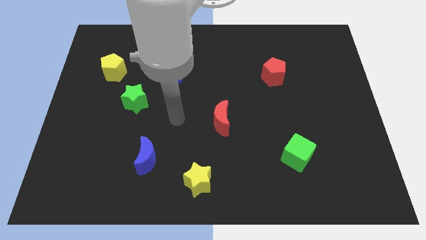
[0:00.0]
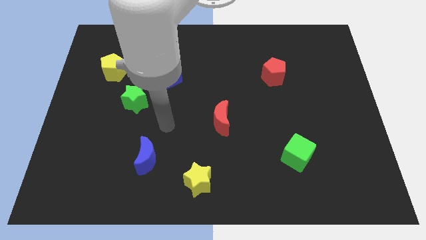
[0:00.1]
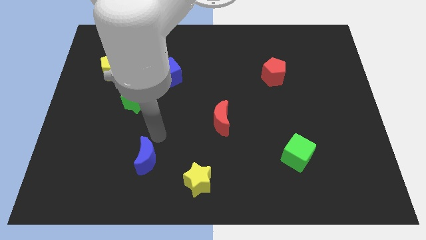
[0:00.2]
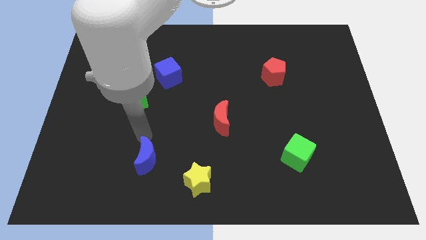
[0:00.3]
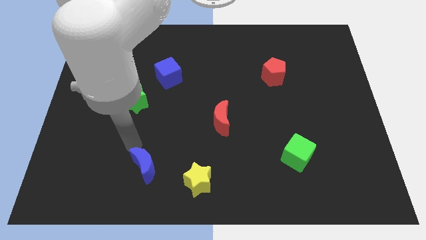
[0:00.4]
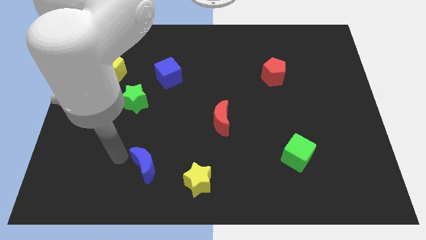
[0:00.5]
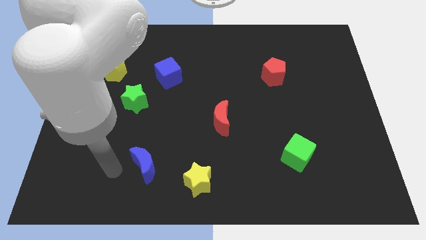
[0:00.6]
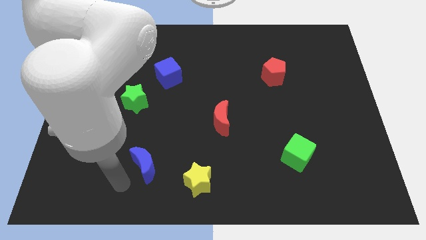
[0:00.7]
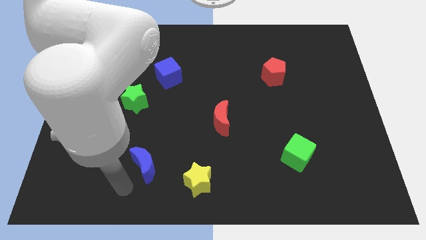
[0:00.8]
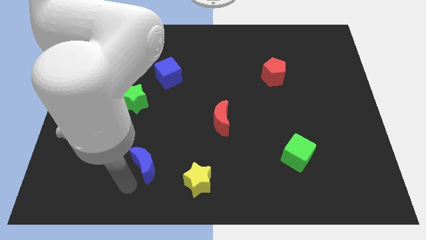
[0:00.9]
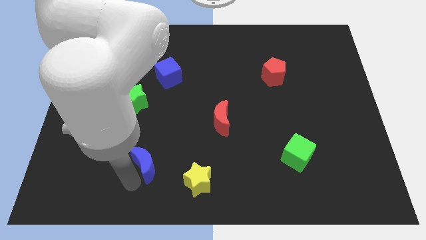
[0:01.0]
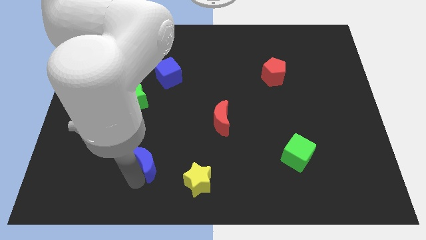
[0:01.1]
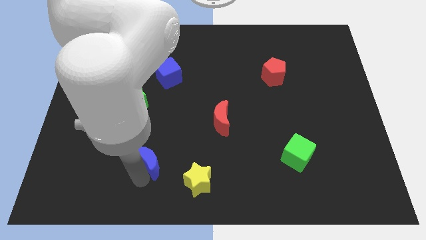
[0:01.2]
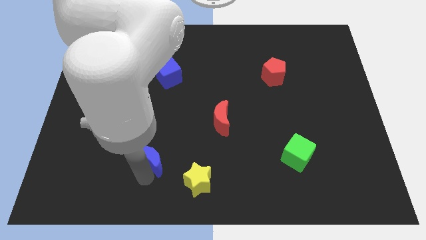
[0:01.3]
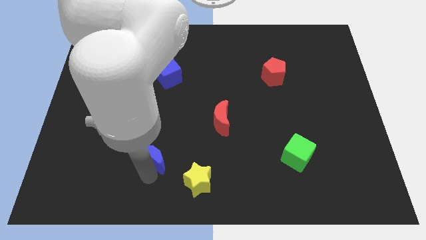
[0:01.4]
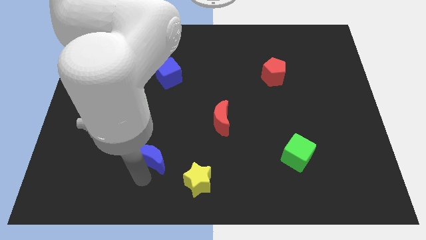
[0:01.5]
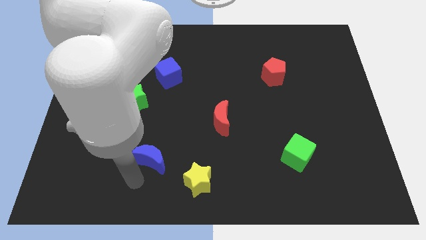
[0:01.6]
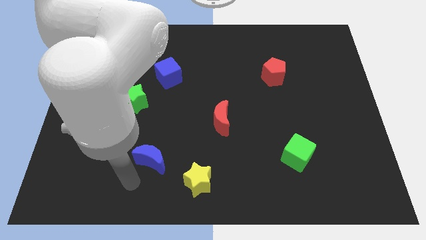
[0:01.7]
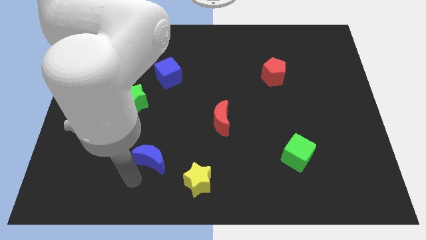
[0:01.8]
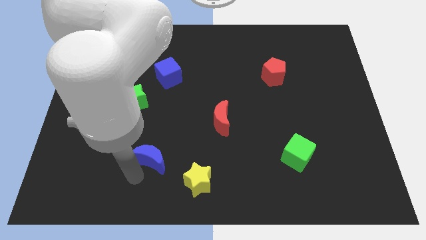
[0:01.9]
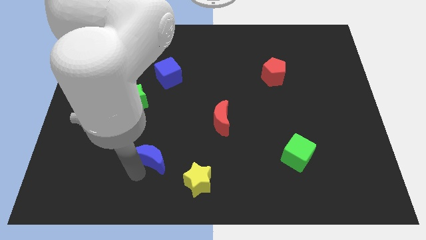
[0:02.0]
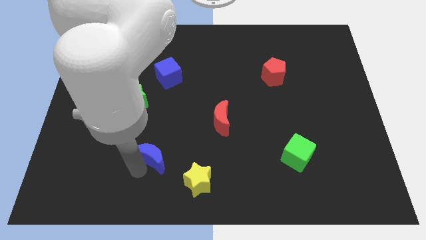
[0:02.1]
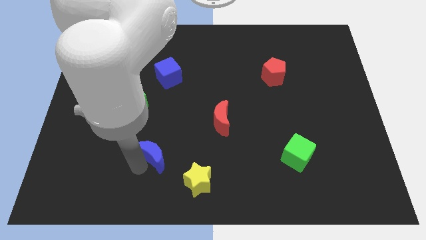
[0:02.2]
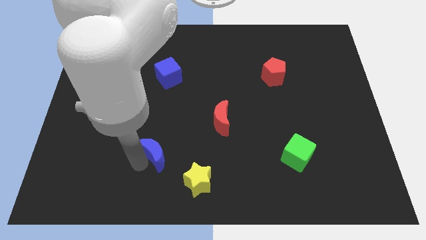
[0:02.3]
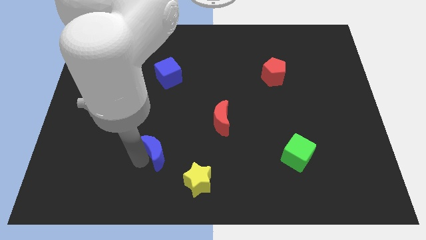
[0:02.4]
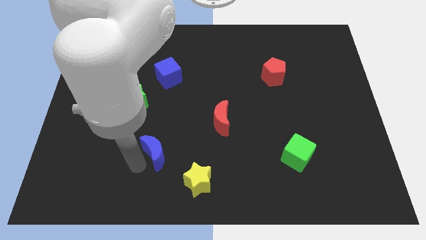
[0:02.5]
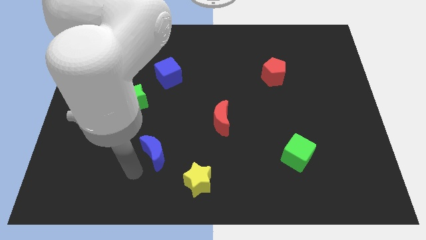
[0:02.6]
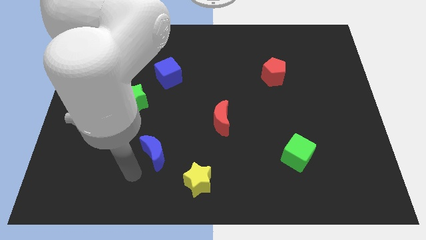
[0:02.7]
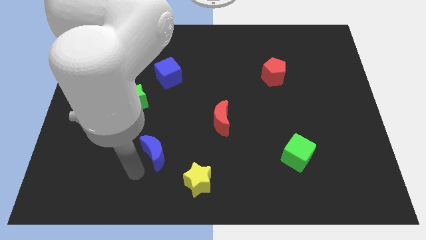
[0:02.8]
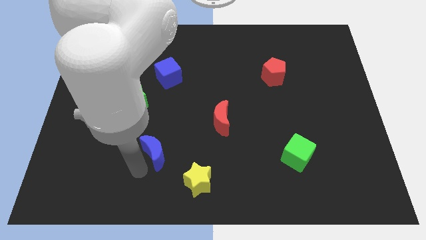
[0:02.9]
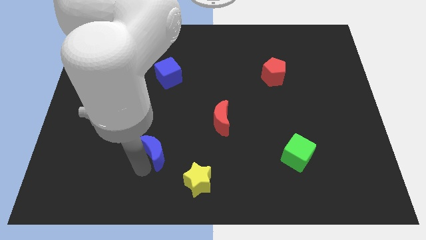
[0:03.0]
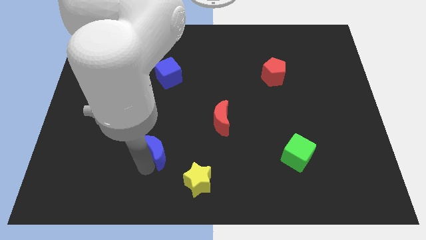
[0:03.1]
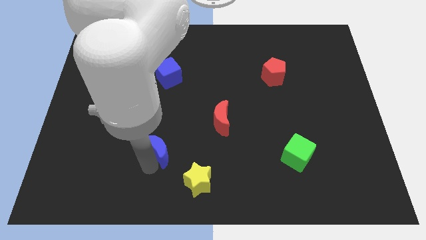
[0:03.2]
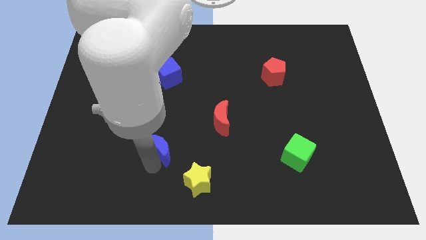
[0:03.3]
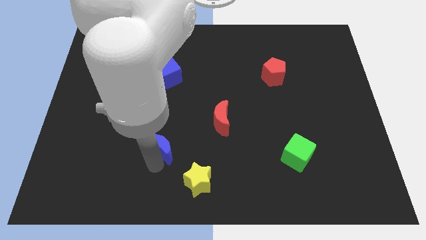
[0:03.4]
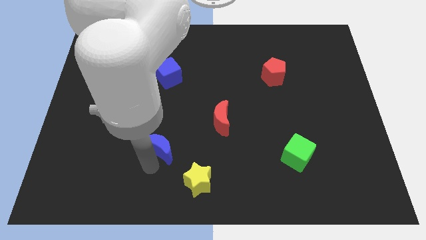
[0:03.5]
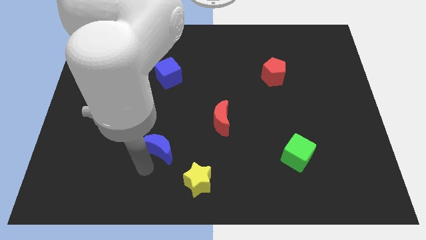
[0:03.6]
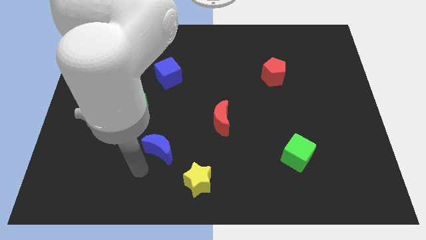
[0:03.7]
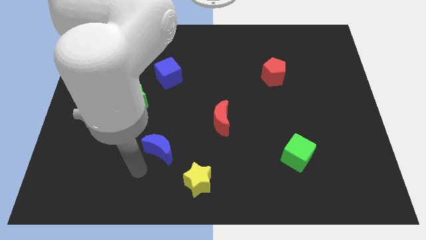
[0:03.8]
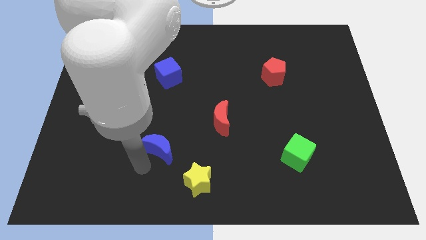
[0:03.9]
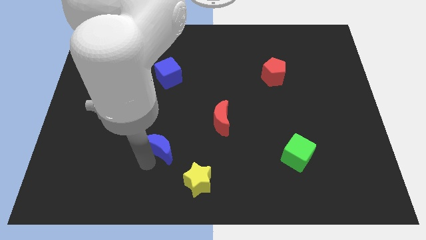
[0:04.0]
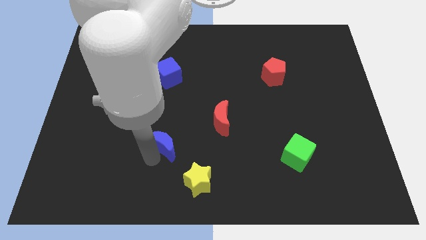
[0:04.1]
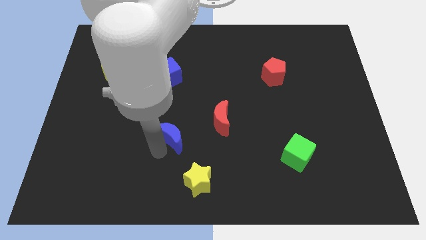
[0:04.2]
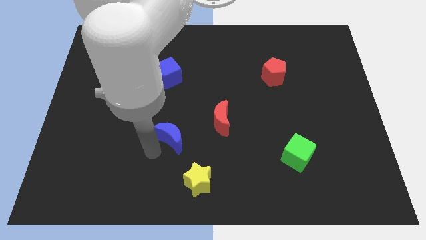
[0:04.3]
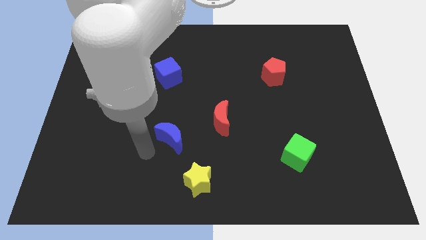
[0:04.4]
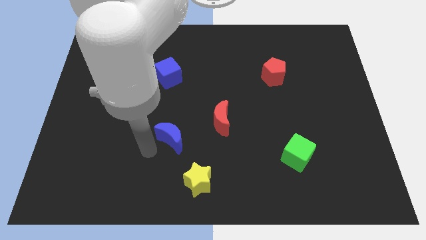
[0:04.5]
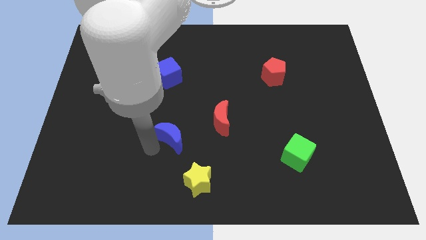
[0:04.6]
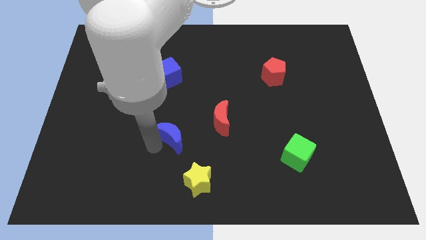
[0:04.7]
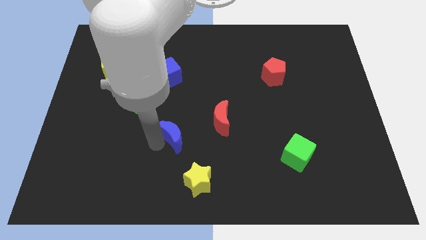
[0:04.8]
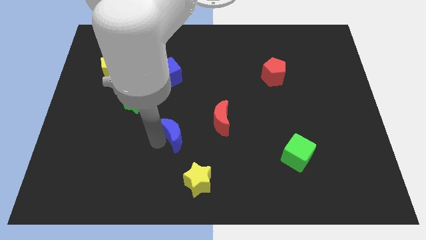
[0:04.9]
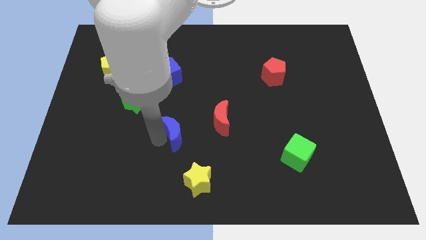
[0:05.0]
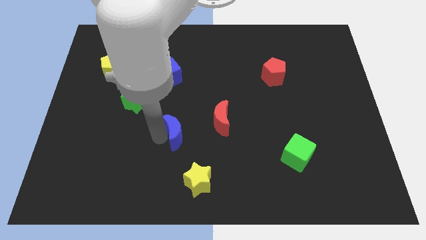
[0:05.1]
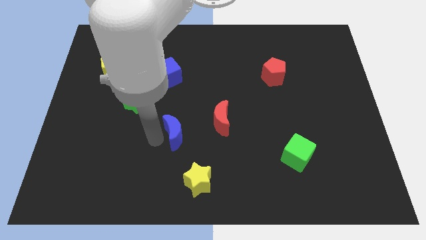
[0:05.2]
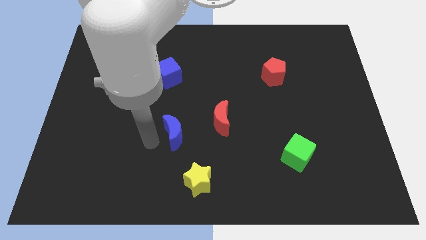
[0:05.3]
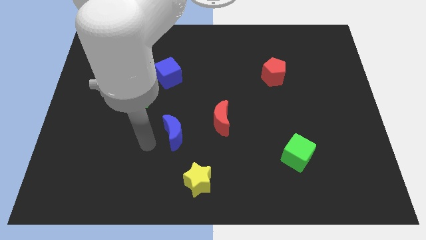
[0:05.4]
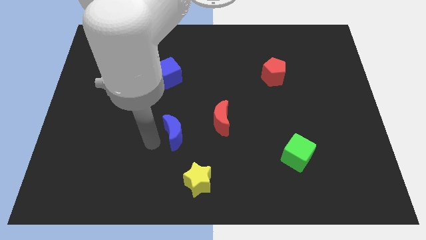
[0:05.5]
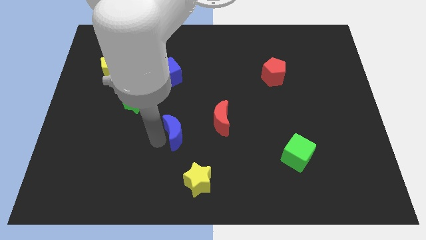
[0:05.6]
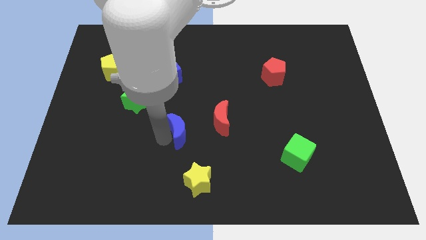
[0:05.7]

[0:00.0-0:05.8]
push the blue moon to the middle
